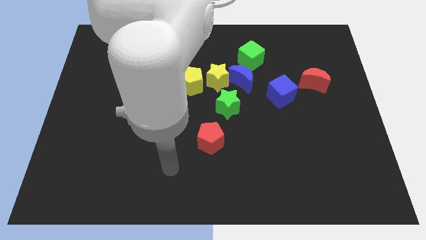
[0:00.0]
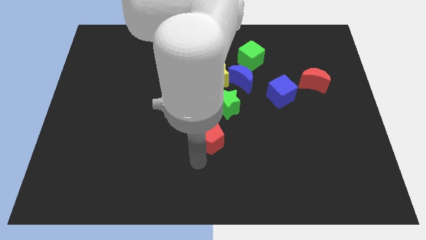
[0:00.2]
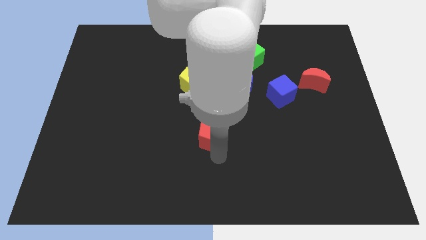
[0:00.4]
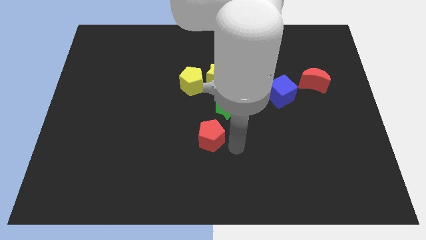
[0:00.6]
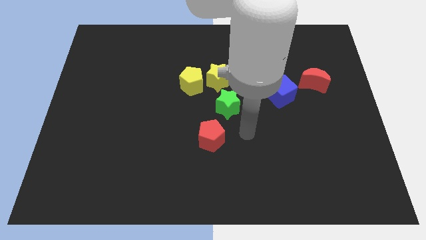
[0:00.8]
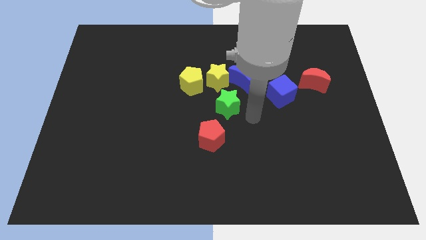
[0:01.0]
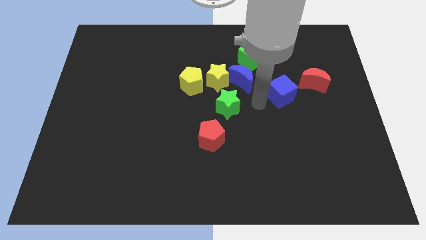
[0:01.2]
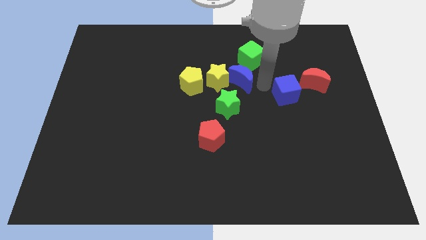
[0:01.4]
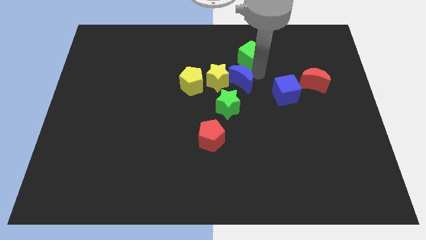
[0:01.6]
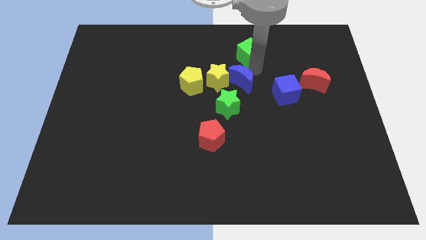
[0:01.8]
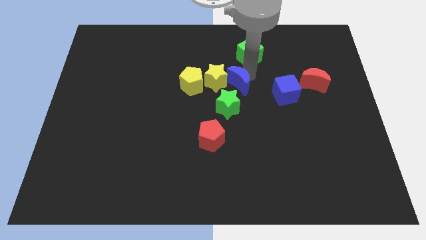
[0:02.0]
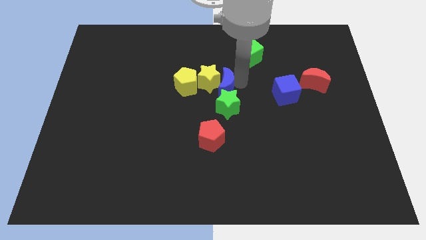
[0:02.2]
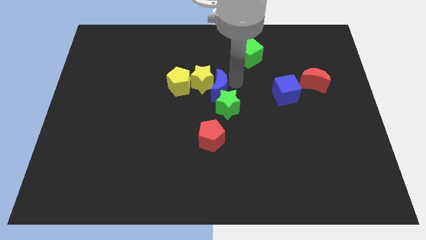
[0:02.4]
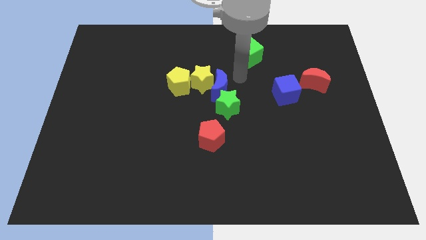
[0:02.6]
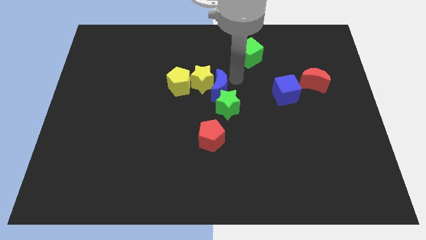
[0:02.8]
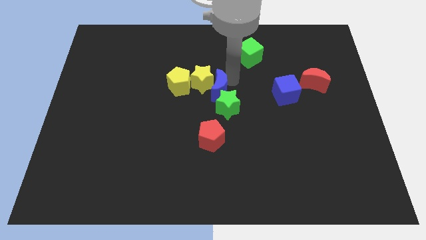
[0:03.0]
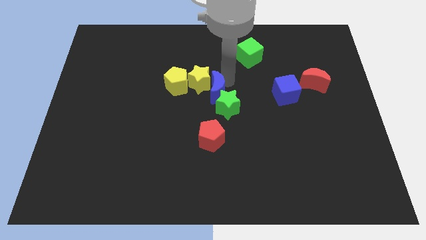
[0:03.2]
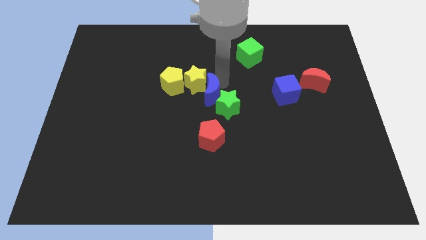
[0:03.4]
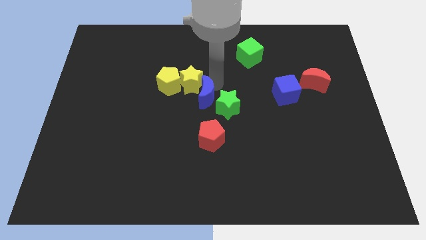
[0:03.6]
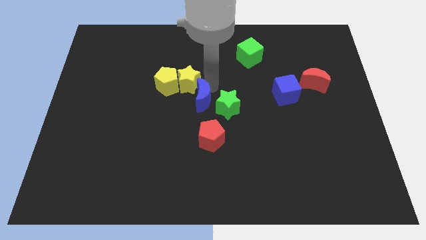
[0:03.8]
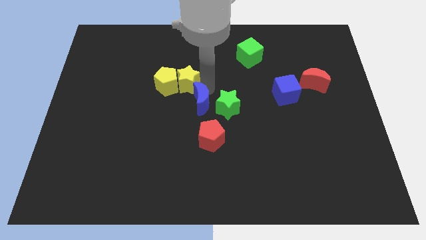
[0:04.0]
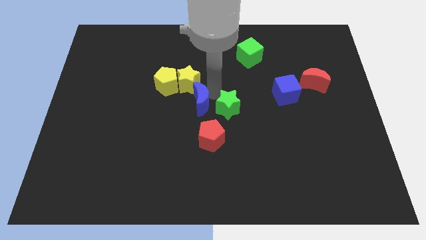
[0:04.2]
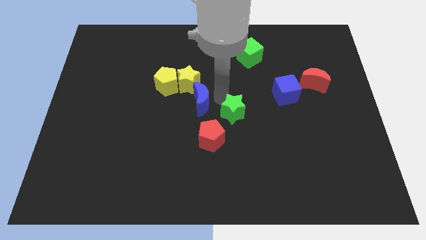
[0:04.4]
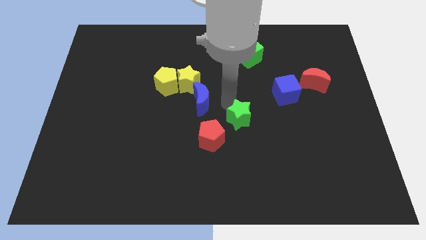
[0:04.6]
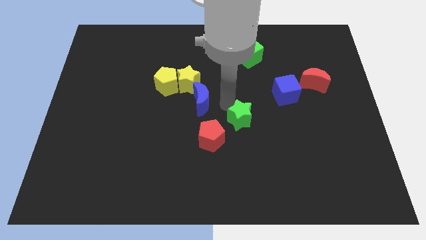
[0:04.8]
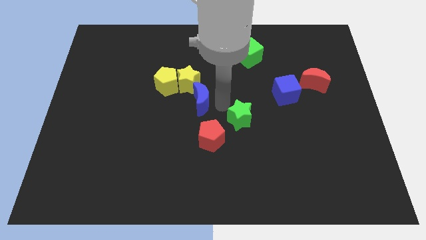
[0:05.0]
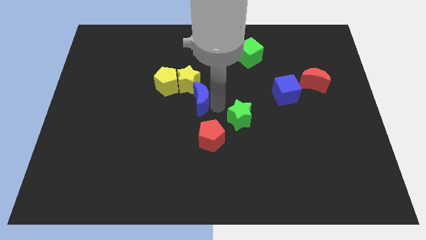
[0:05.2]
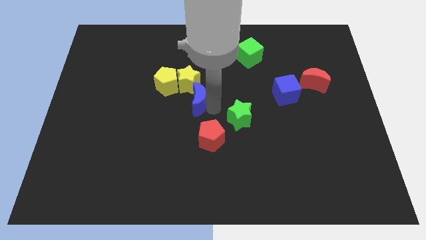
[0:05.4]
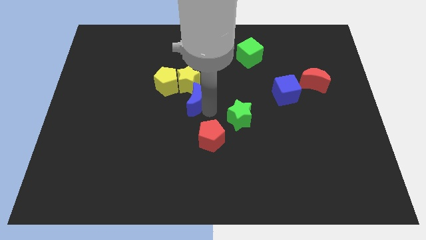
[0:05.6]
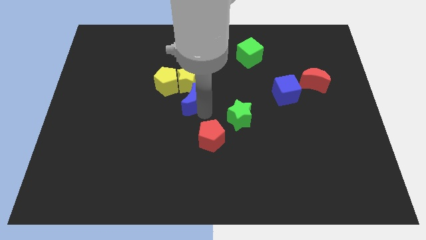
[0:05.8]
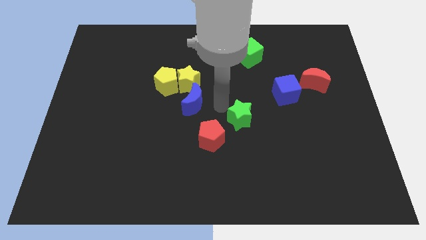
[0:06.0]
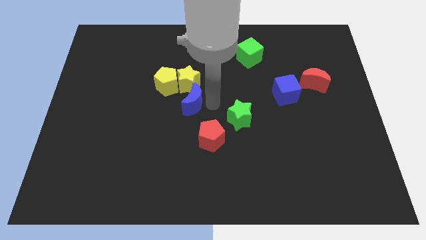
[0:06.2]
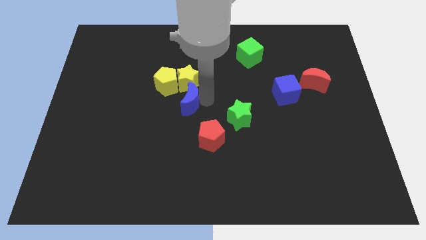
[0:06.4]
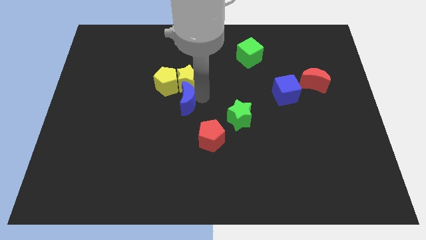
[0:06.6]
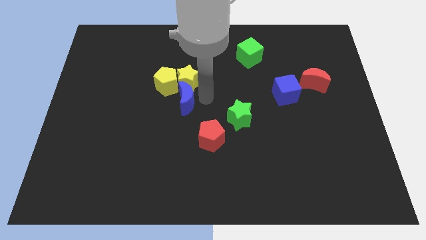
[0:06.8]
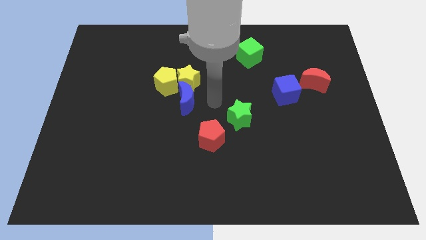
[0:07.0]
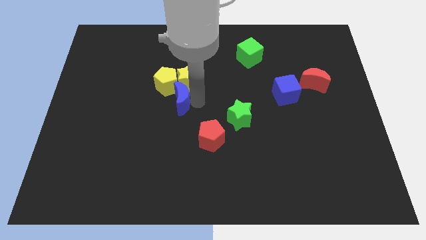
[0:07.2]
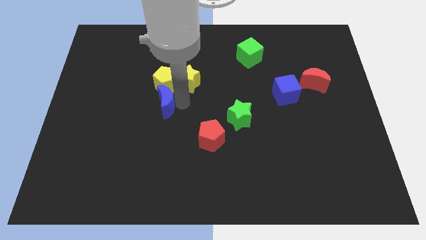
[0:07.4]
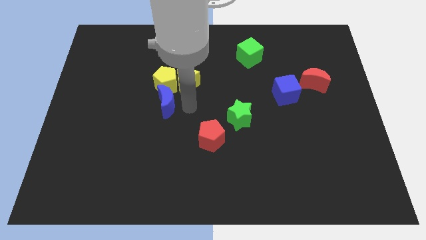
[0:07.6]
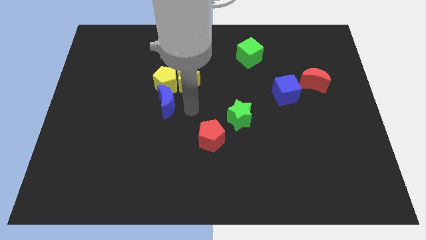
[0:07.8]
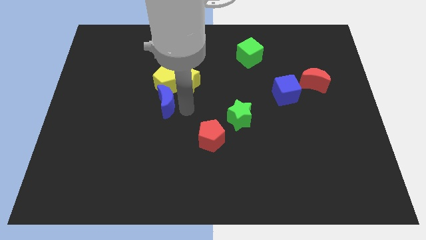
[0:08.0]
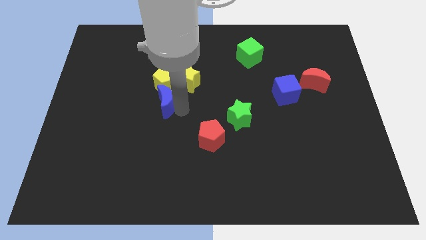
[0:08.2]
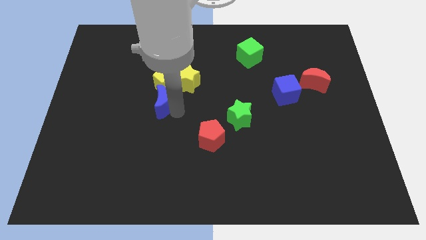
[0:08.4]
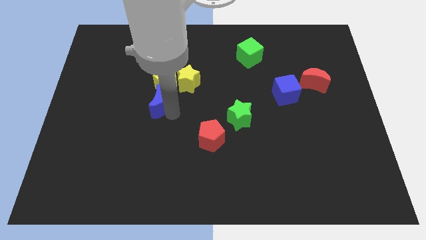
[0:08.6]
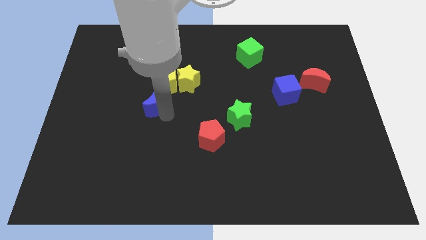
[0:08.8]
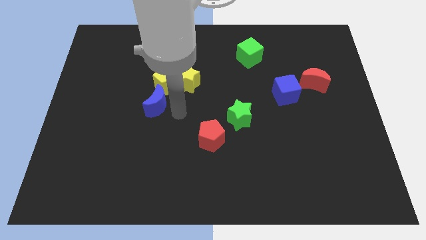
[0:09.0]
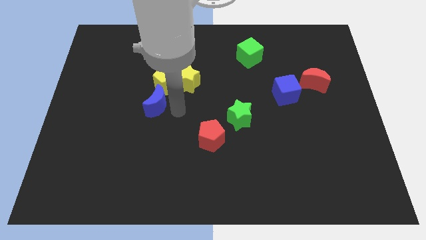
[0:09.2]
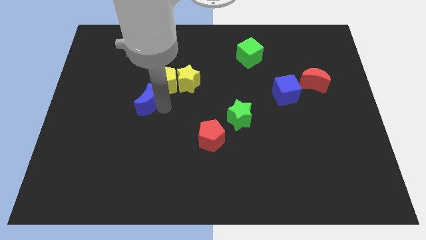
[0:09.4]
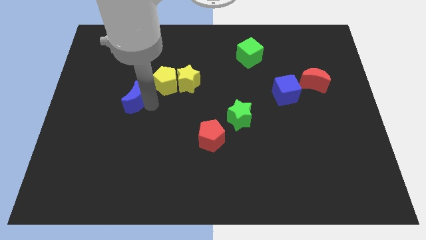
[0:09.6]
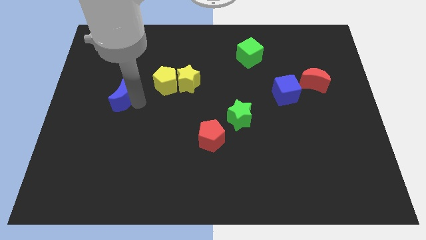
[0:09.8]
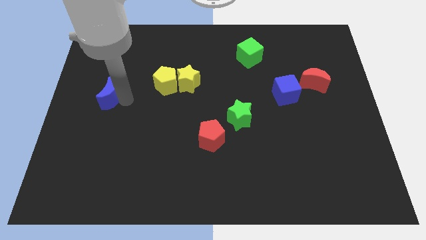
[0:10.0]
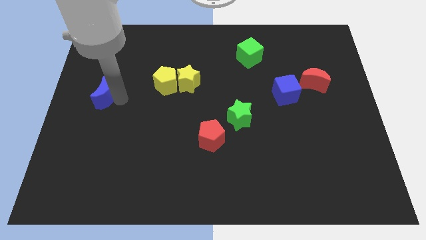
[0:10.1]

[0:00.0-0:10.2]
move the blue moon to the left side

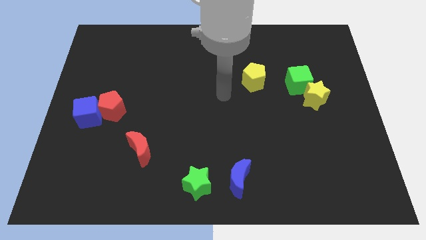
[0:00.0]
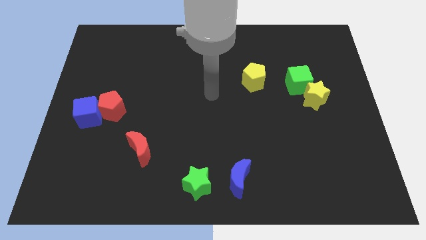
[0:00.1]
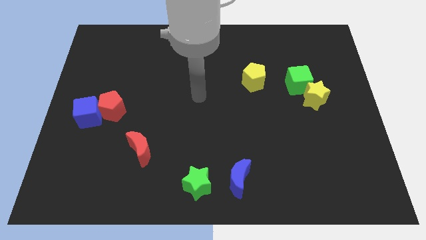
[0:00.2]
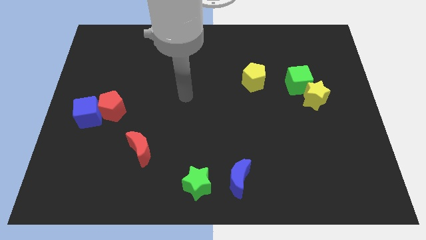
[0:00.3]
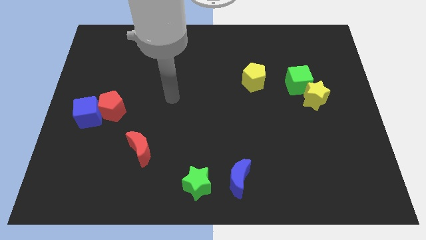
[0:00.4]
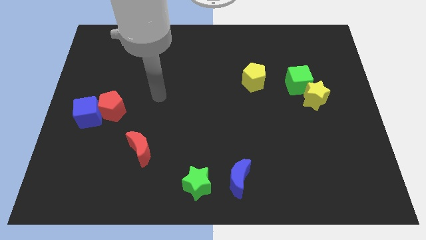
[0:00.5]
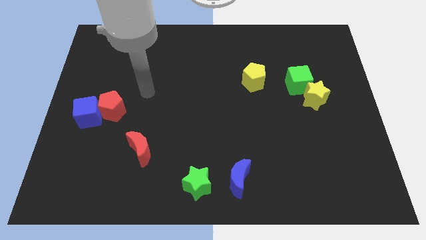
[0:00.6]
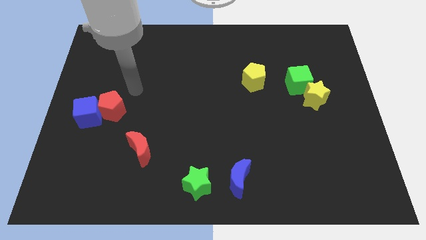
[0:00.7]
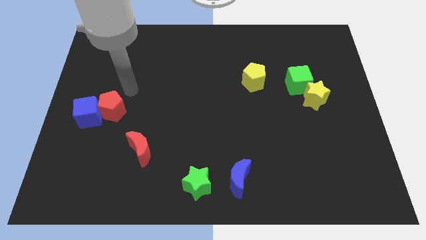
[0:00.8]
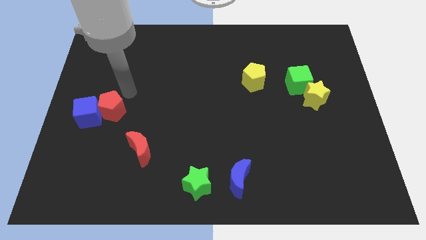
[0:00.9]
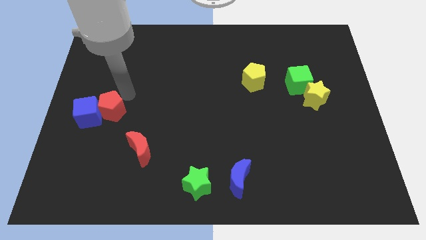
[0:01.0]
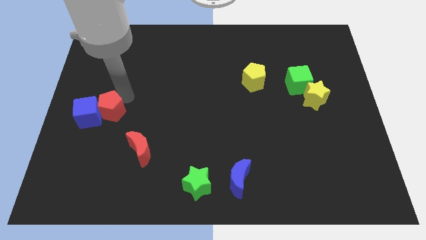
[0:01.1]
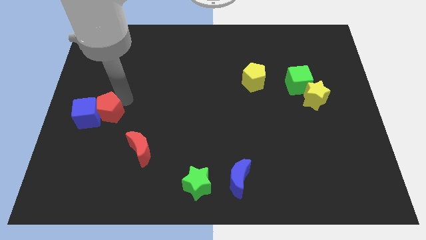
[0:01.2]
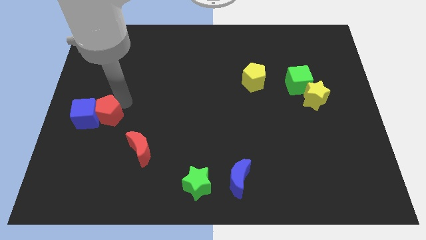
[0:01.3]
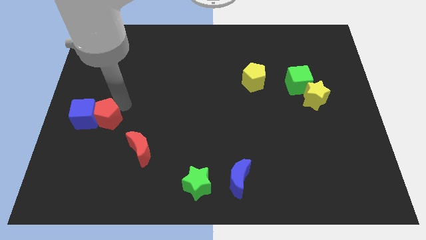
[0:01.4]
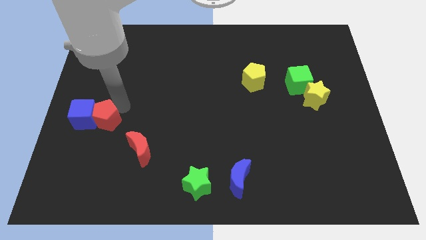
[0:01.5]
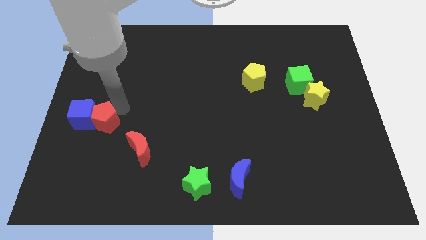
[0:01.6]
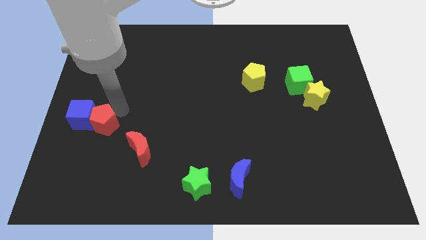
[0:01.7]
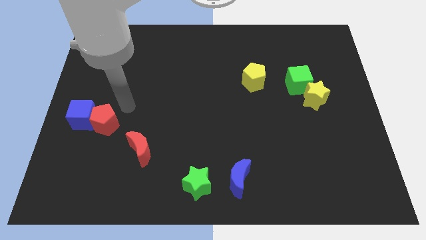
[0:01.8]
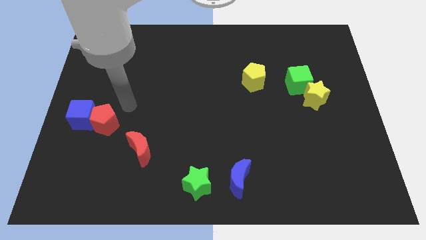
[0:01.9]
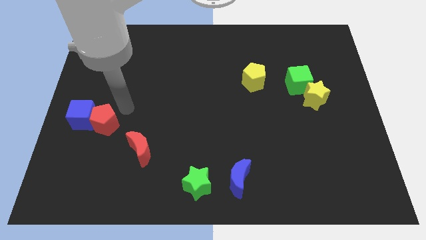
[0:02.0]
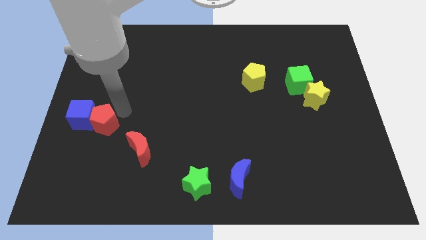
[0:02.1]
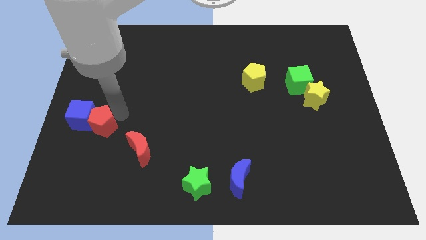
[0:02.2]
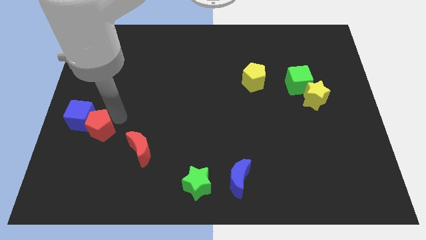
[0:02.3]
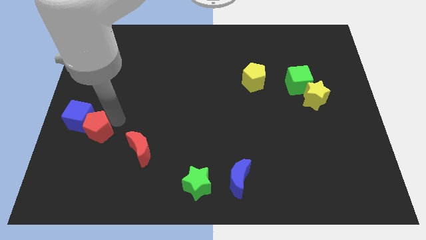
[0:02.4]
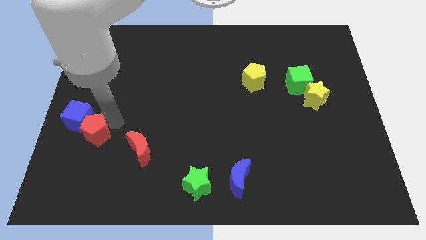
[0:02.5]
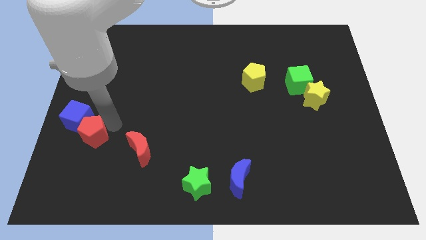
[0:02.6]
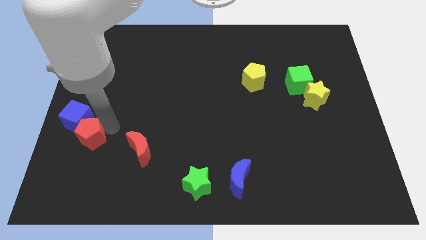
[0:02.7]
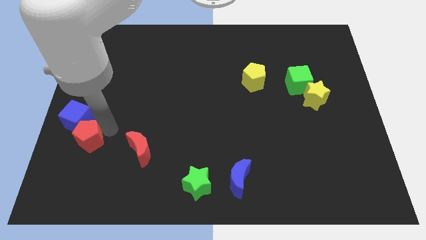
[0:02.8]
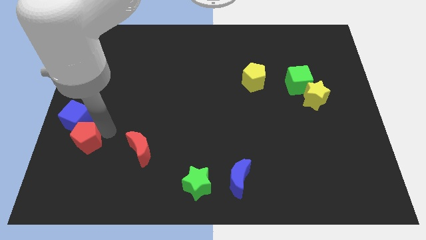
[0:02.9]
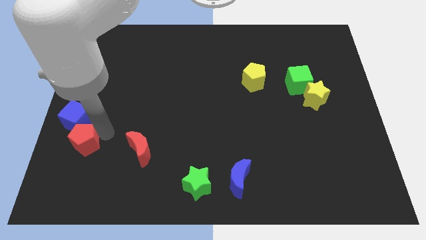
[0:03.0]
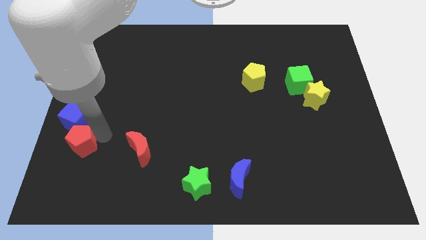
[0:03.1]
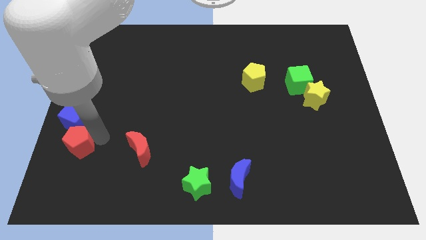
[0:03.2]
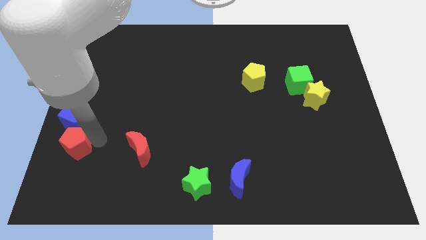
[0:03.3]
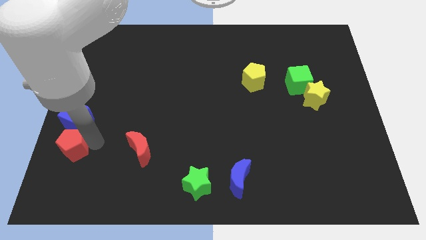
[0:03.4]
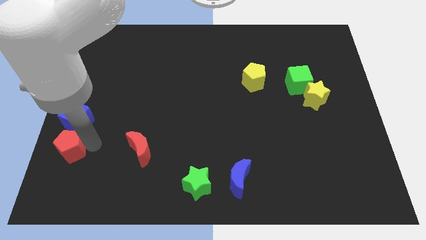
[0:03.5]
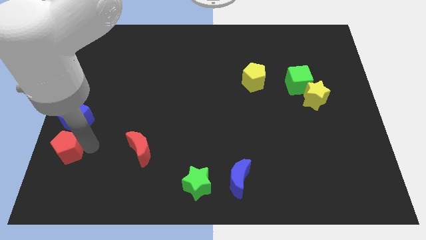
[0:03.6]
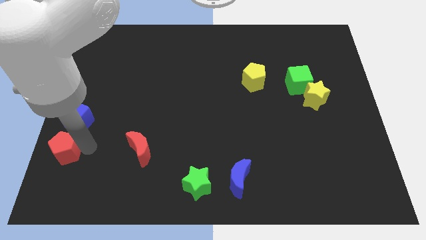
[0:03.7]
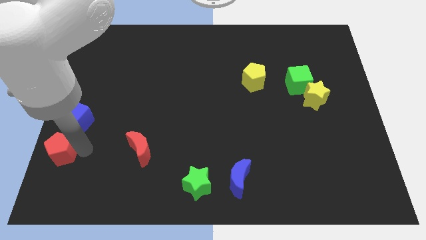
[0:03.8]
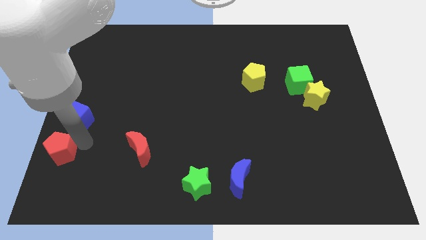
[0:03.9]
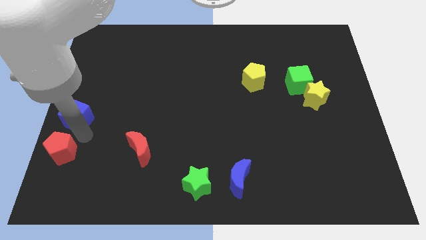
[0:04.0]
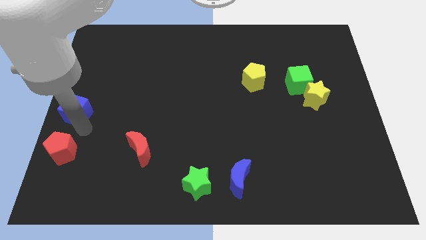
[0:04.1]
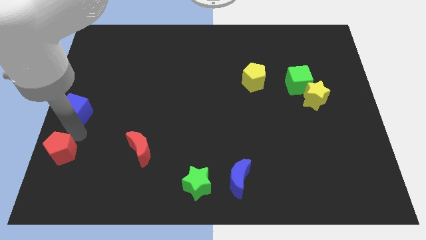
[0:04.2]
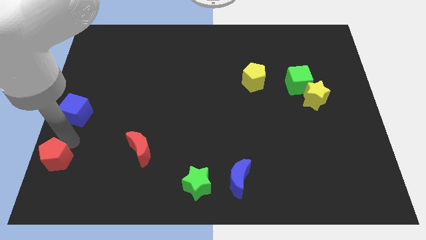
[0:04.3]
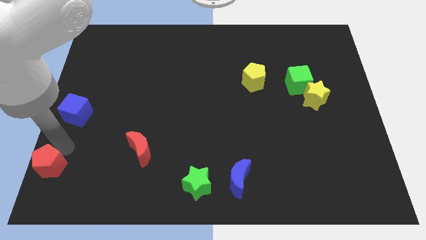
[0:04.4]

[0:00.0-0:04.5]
push the red pentagon to the lower left corner
